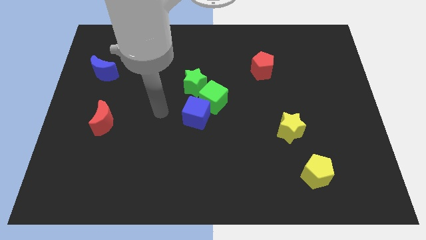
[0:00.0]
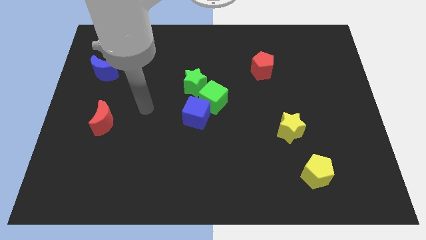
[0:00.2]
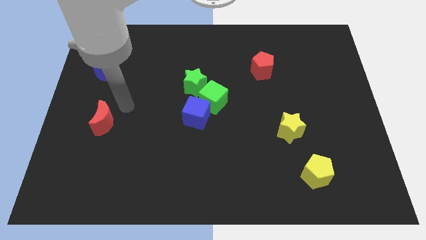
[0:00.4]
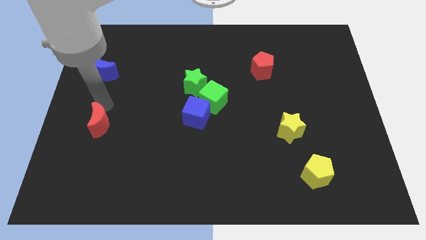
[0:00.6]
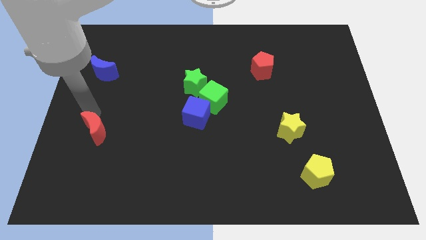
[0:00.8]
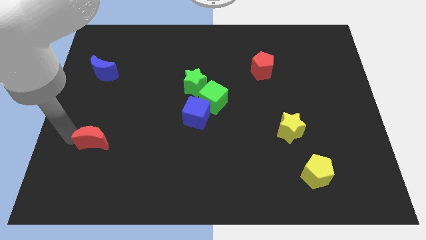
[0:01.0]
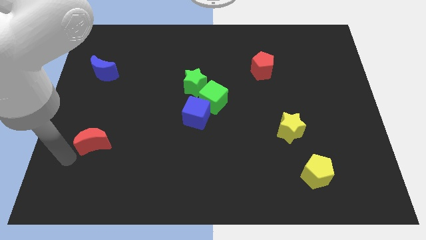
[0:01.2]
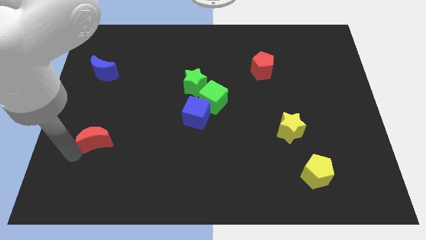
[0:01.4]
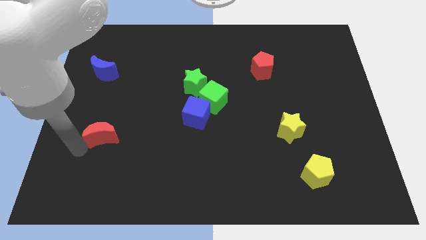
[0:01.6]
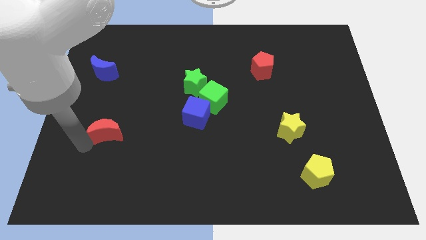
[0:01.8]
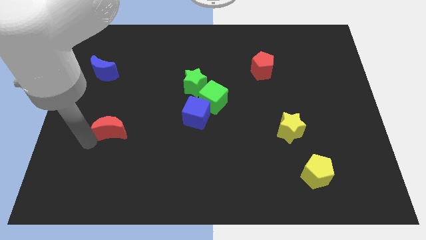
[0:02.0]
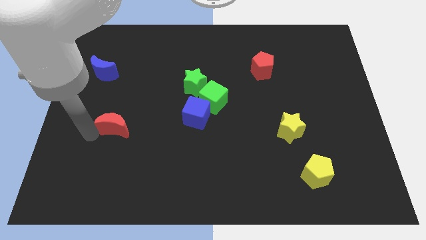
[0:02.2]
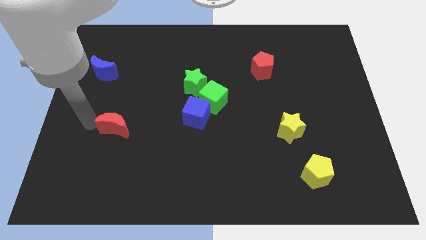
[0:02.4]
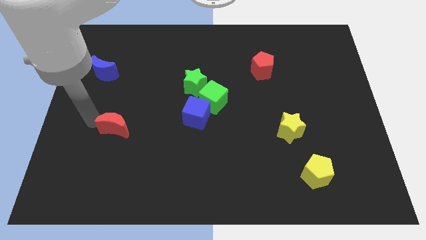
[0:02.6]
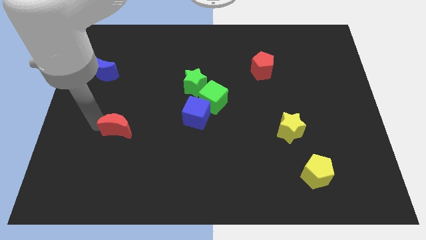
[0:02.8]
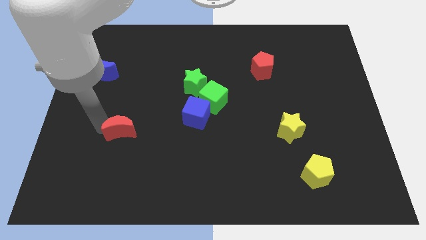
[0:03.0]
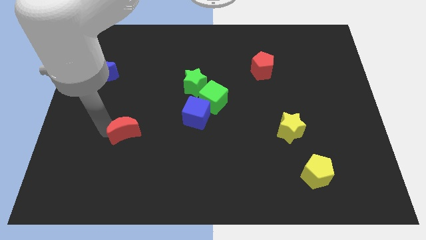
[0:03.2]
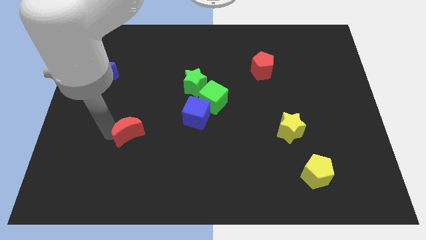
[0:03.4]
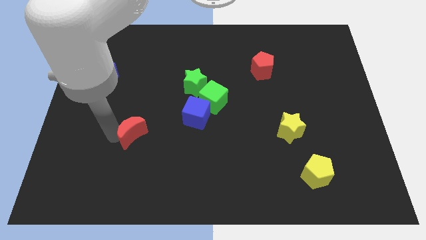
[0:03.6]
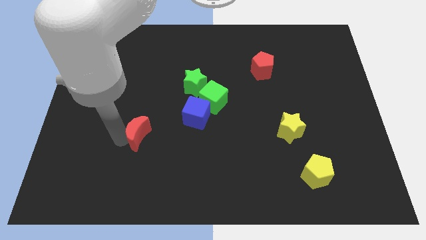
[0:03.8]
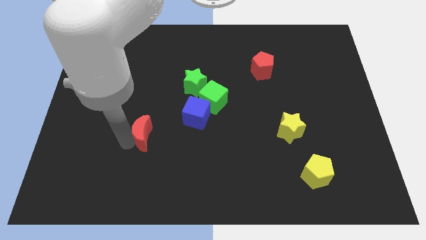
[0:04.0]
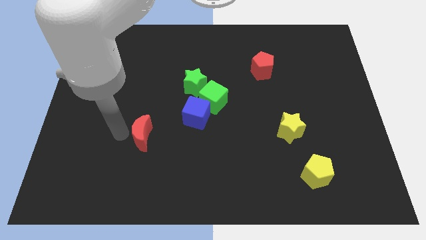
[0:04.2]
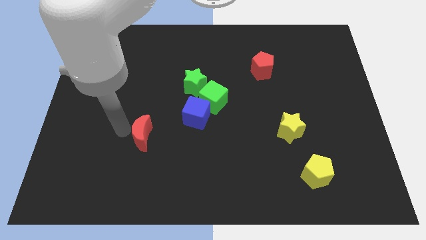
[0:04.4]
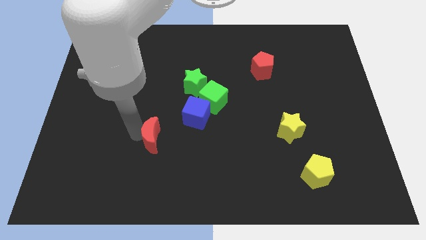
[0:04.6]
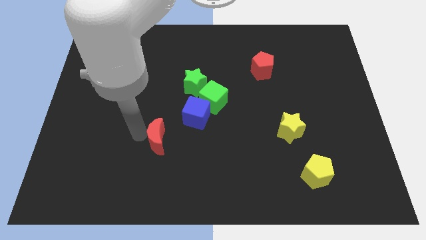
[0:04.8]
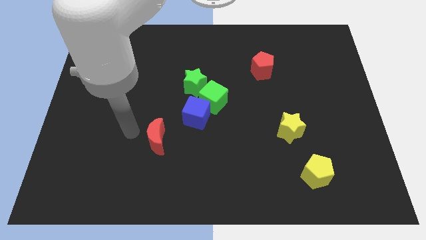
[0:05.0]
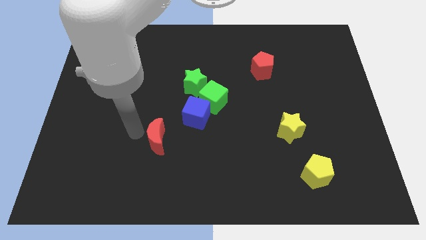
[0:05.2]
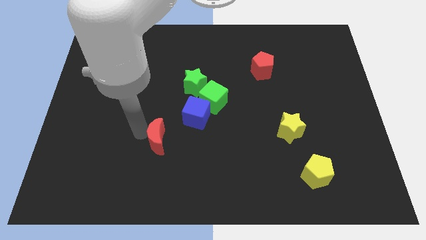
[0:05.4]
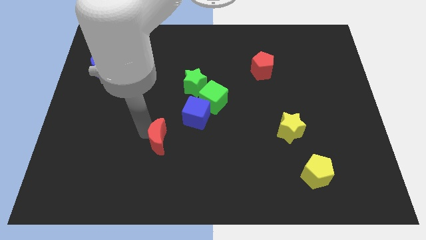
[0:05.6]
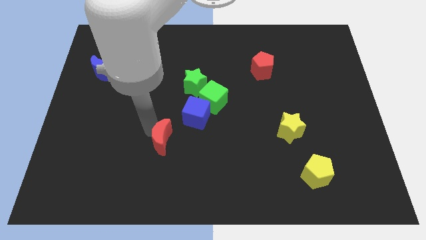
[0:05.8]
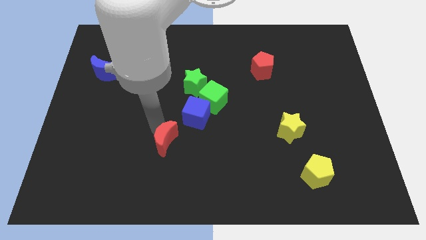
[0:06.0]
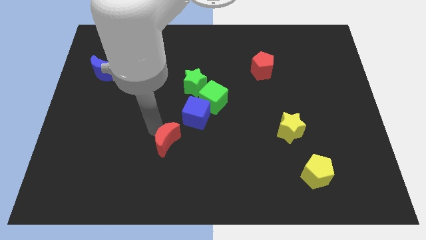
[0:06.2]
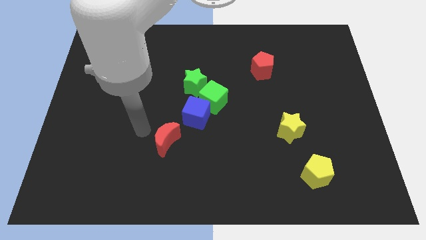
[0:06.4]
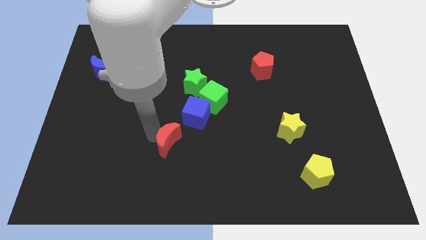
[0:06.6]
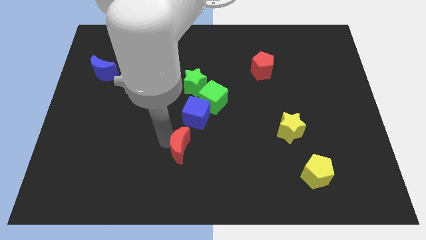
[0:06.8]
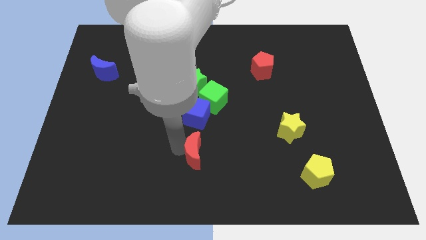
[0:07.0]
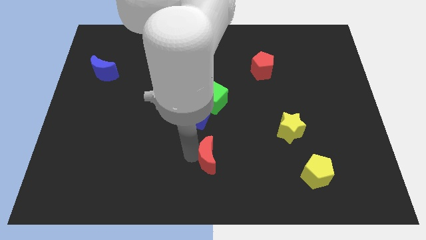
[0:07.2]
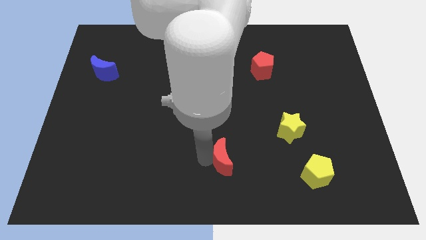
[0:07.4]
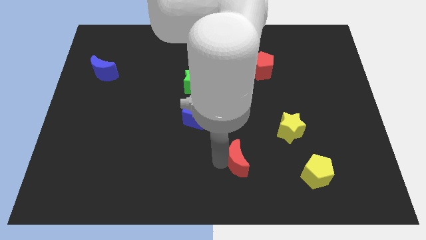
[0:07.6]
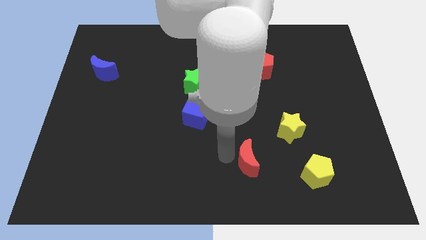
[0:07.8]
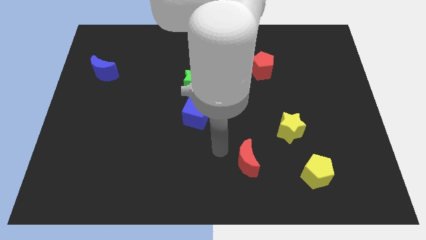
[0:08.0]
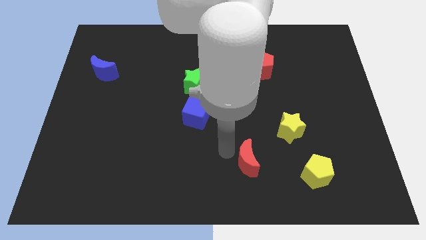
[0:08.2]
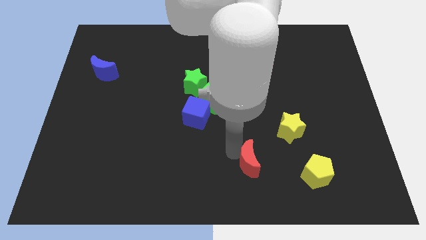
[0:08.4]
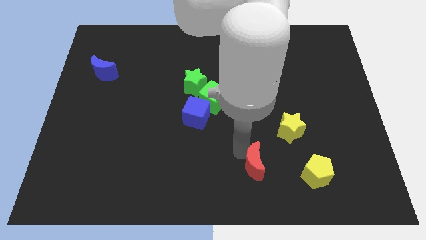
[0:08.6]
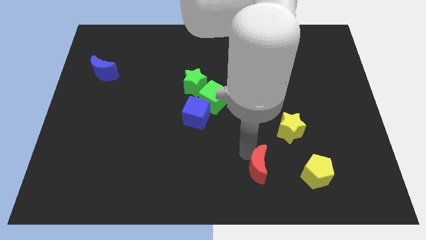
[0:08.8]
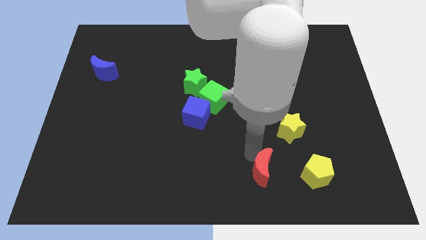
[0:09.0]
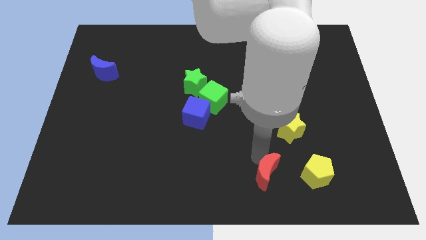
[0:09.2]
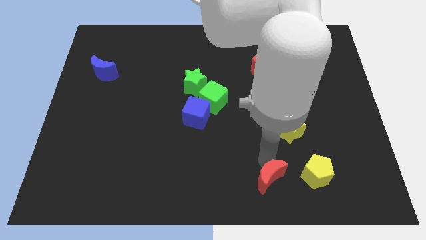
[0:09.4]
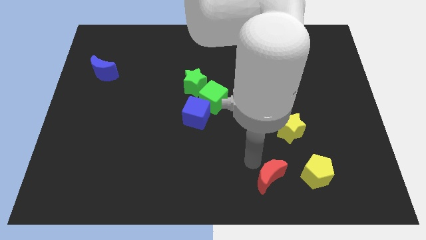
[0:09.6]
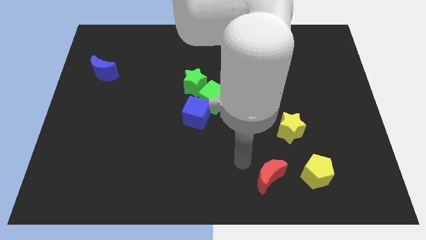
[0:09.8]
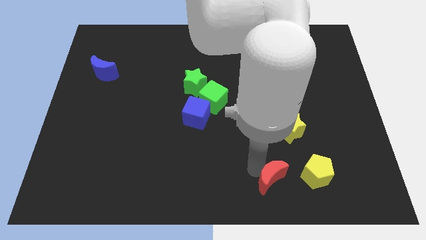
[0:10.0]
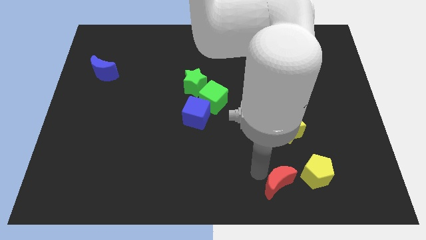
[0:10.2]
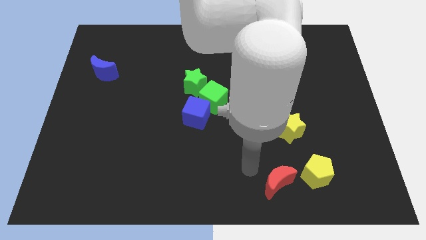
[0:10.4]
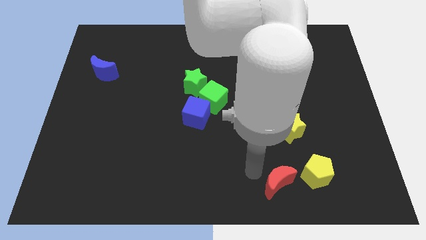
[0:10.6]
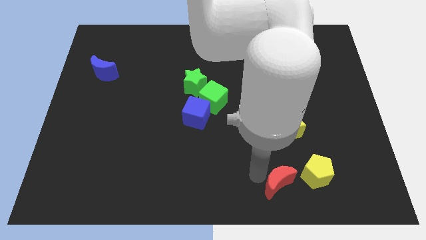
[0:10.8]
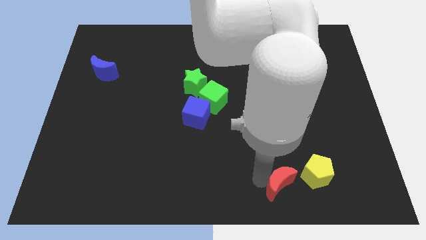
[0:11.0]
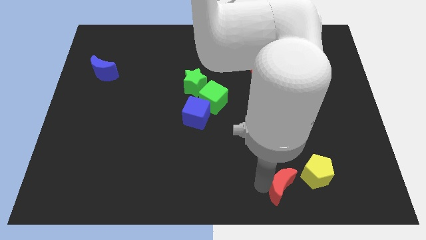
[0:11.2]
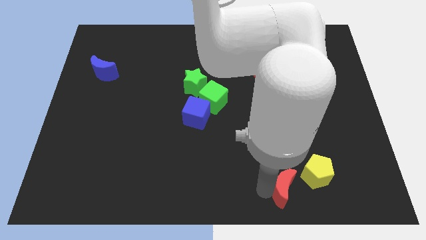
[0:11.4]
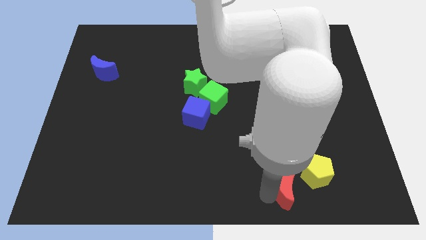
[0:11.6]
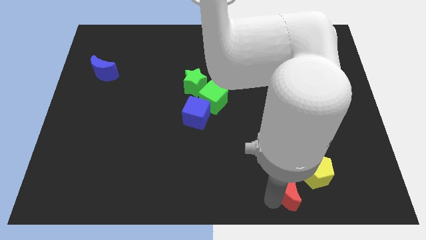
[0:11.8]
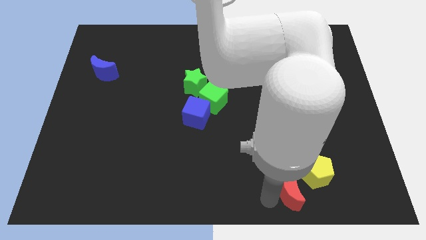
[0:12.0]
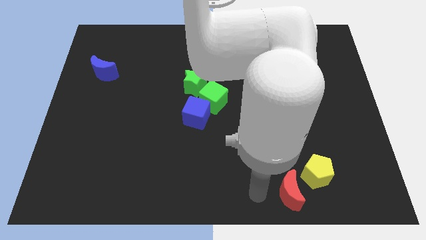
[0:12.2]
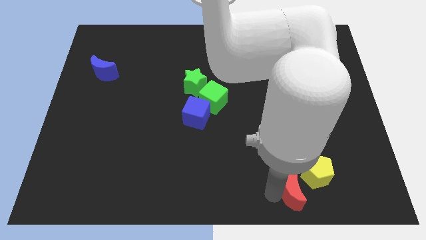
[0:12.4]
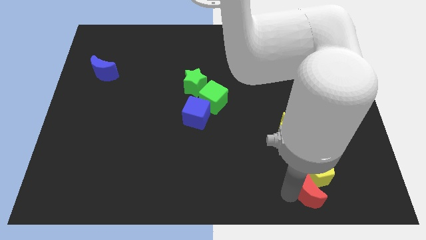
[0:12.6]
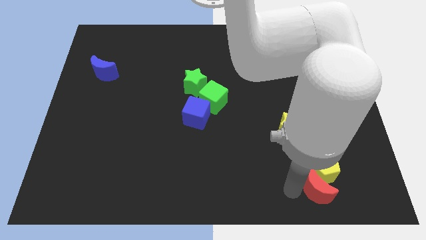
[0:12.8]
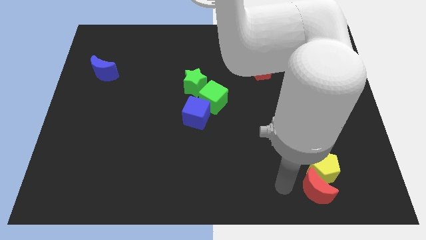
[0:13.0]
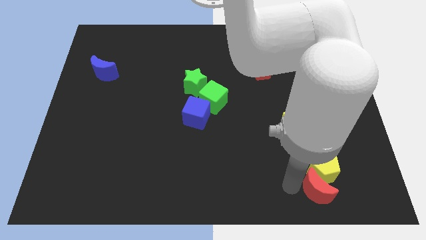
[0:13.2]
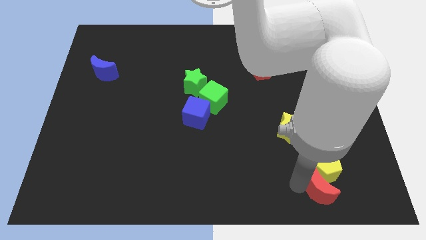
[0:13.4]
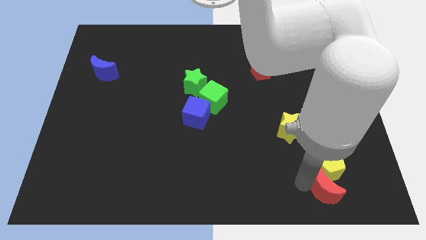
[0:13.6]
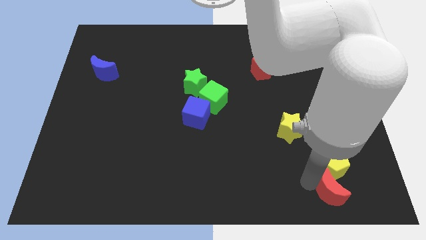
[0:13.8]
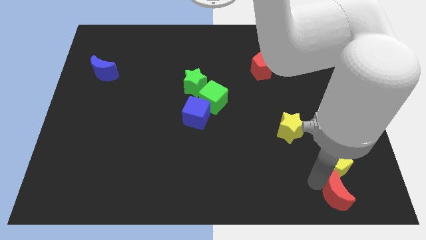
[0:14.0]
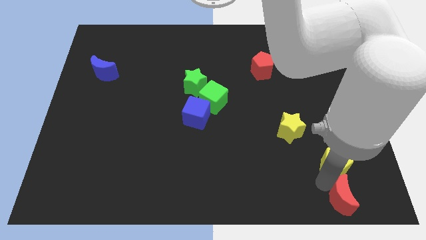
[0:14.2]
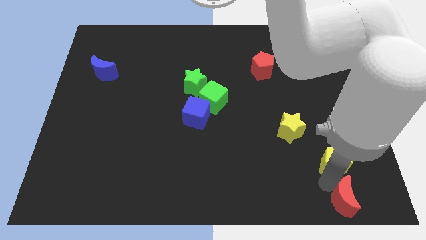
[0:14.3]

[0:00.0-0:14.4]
put the red moon to the bottom right corner
